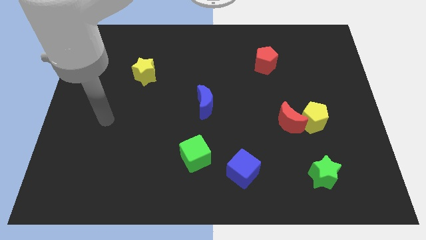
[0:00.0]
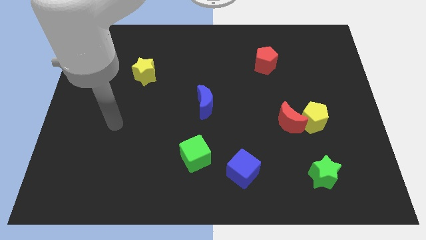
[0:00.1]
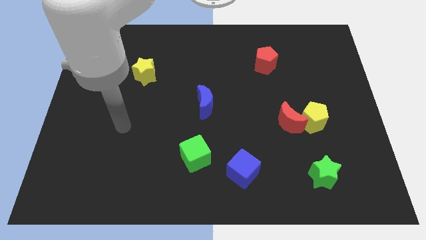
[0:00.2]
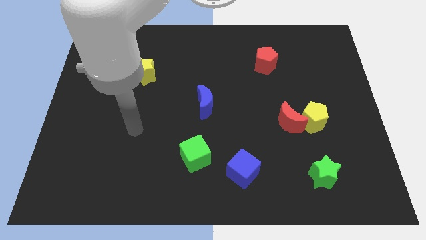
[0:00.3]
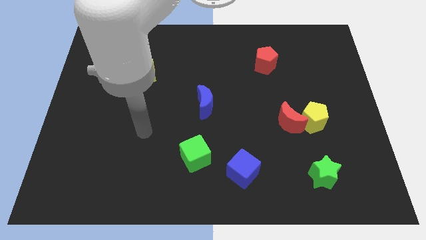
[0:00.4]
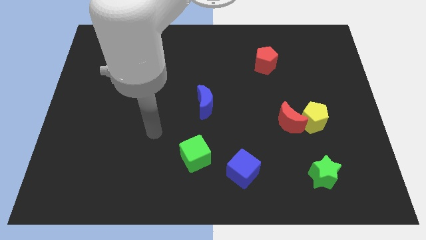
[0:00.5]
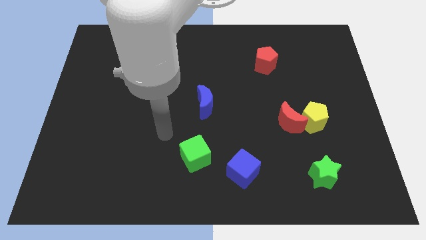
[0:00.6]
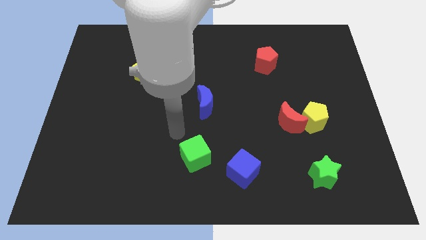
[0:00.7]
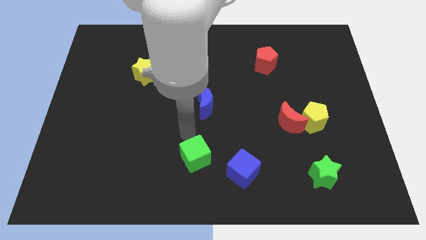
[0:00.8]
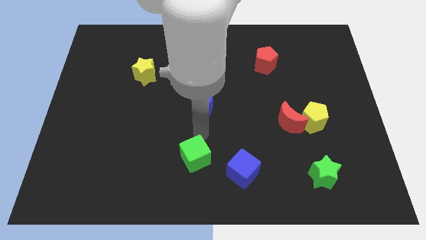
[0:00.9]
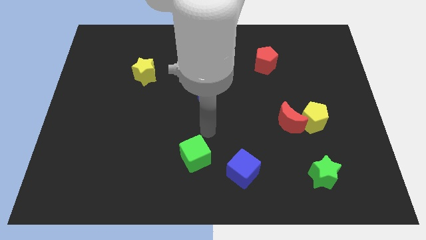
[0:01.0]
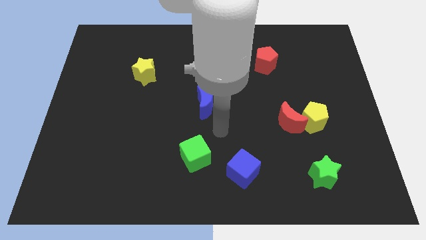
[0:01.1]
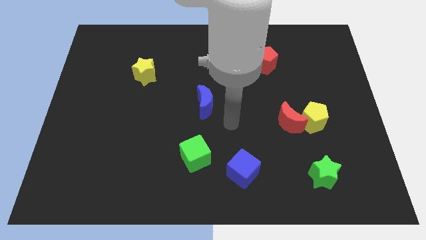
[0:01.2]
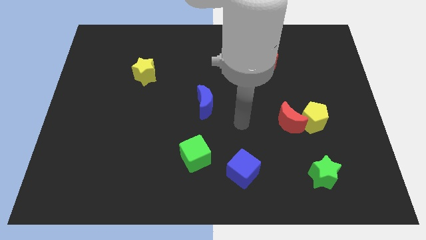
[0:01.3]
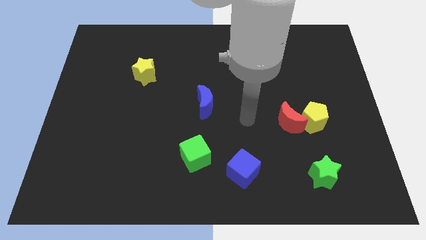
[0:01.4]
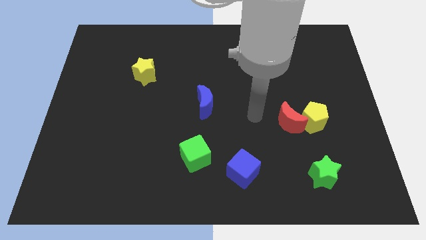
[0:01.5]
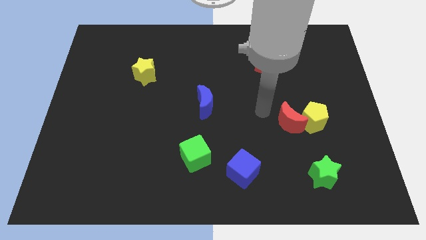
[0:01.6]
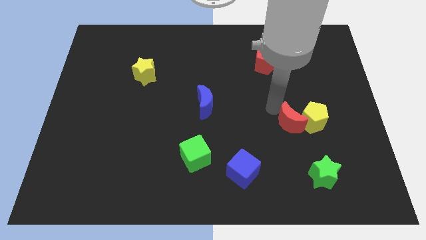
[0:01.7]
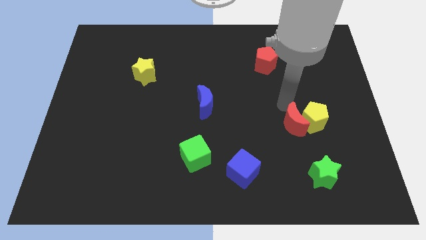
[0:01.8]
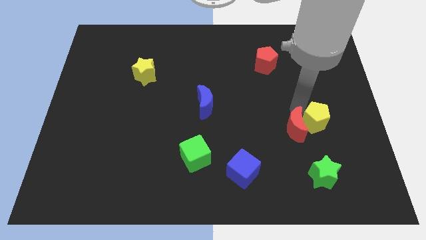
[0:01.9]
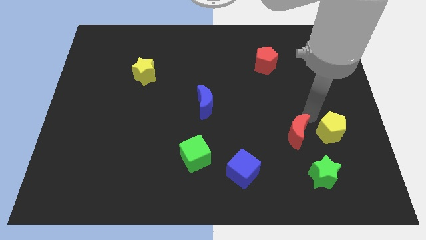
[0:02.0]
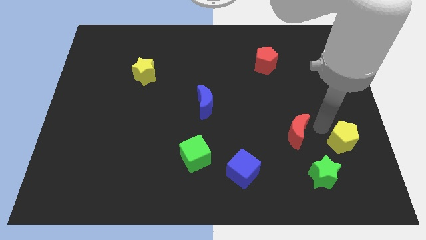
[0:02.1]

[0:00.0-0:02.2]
pull the red moon apart from the yellow pentagon

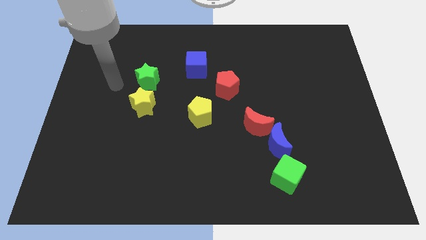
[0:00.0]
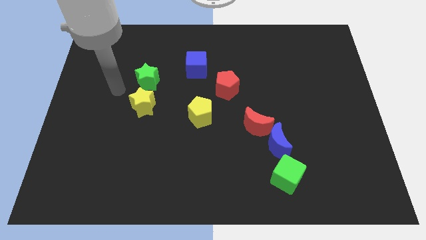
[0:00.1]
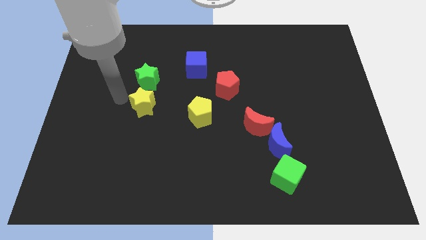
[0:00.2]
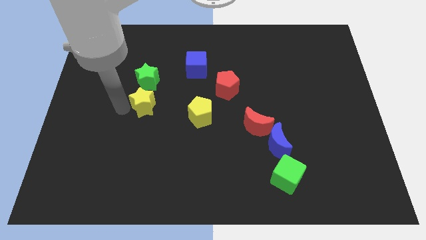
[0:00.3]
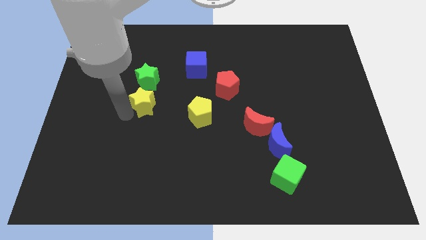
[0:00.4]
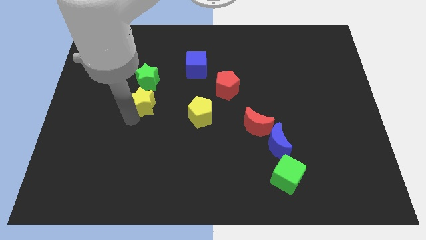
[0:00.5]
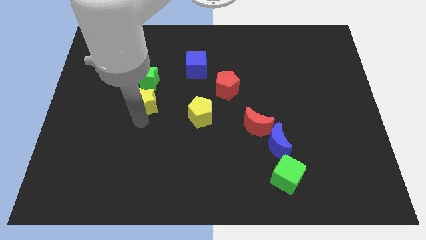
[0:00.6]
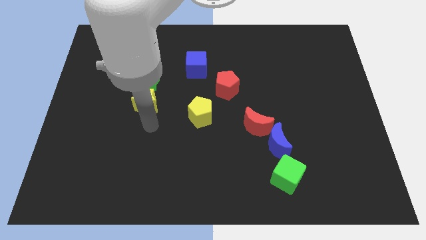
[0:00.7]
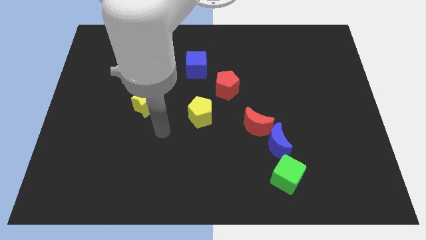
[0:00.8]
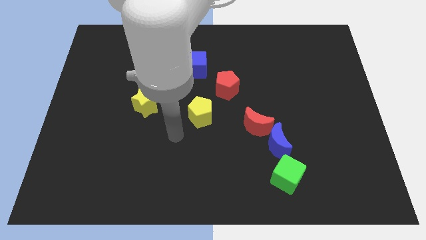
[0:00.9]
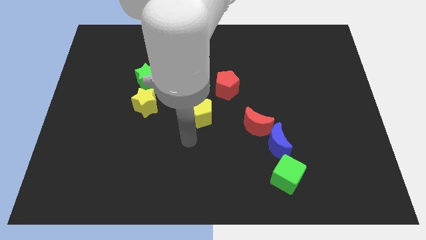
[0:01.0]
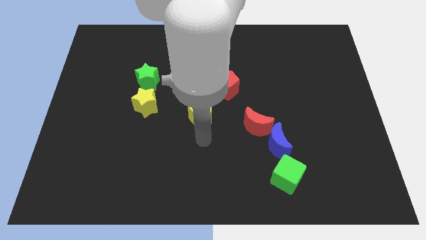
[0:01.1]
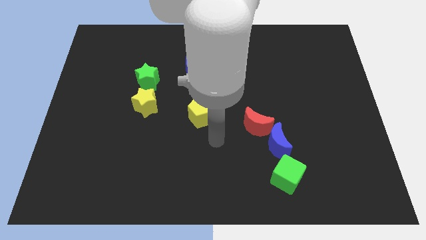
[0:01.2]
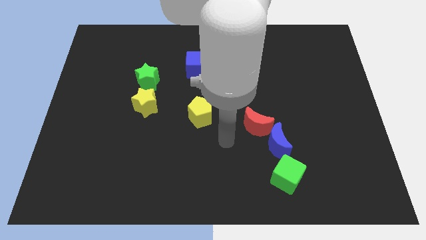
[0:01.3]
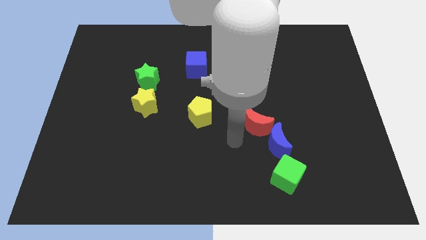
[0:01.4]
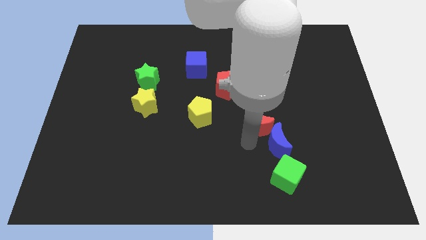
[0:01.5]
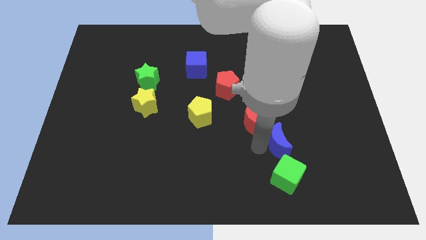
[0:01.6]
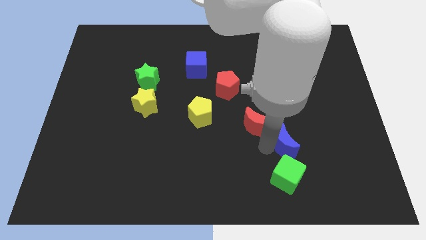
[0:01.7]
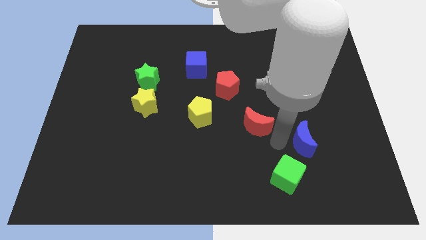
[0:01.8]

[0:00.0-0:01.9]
move the red moon away from the blue moon

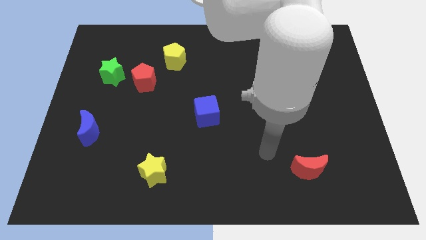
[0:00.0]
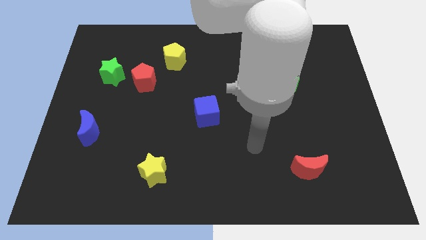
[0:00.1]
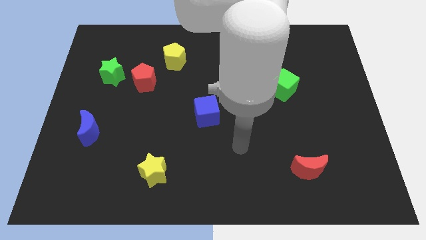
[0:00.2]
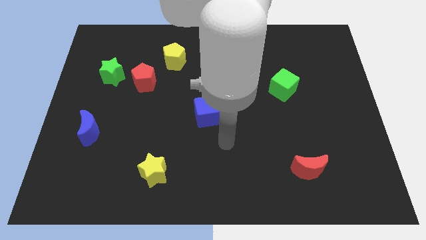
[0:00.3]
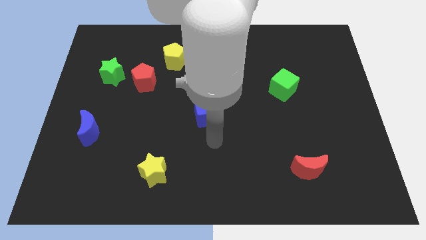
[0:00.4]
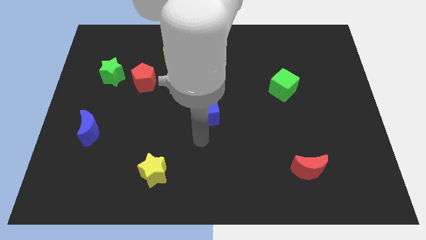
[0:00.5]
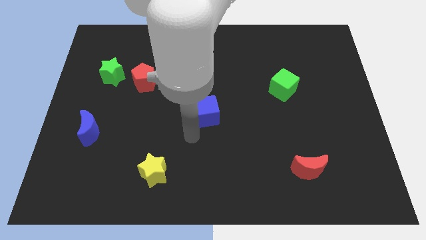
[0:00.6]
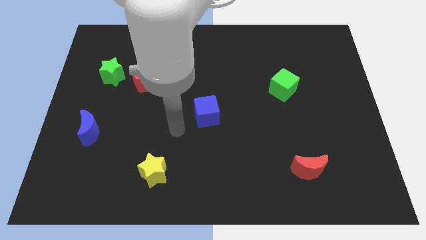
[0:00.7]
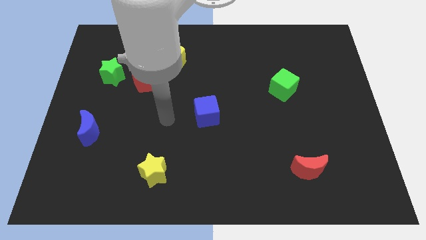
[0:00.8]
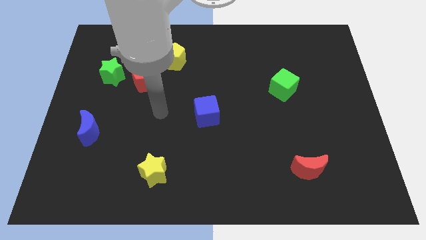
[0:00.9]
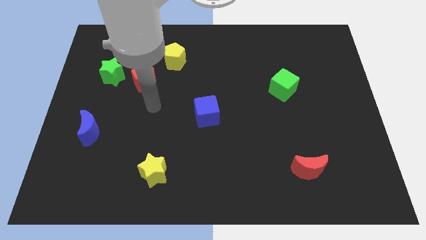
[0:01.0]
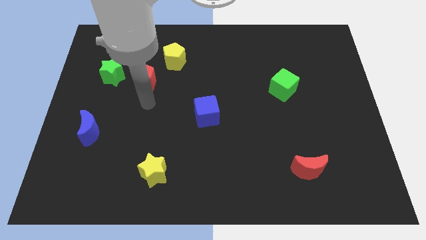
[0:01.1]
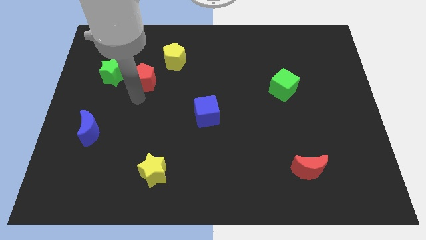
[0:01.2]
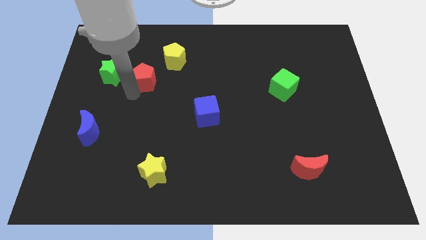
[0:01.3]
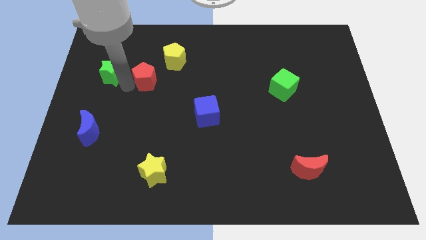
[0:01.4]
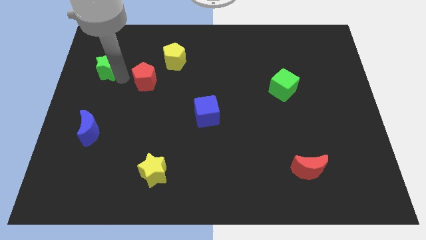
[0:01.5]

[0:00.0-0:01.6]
pull the red pentagon apart from the green star

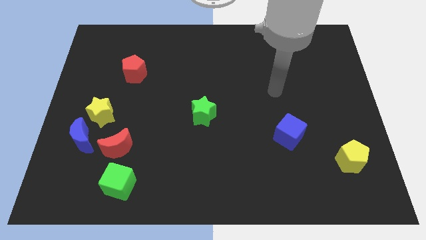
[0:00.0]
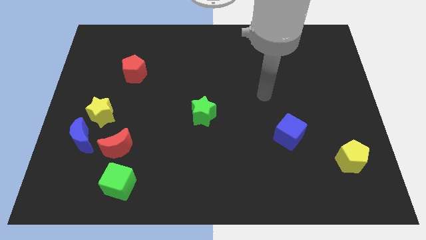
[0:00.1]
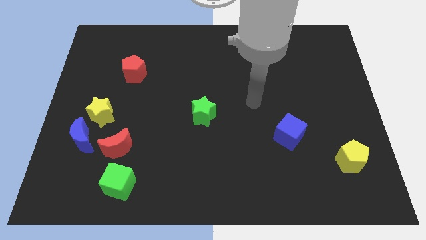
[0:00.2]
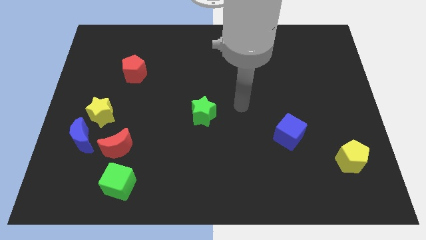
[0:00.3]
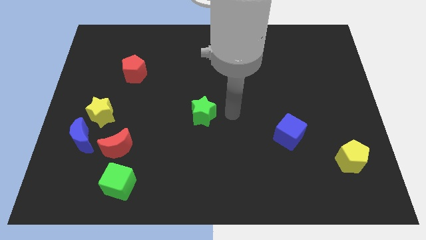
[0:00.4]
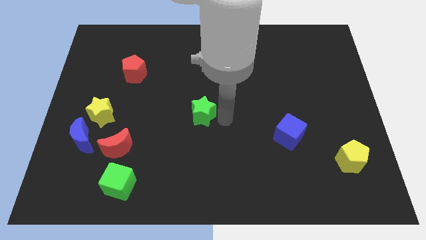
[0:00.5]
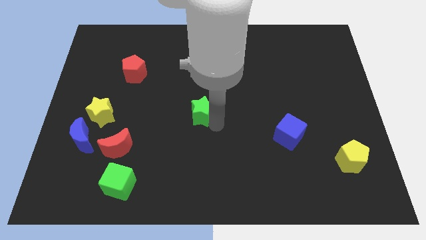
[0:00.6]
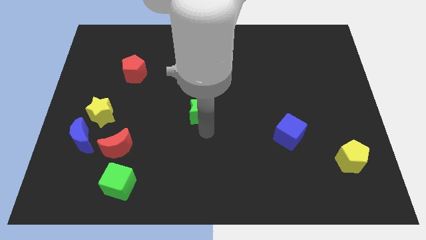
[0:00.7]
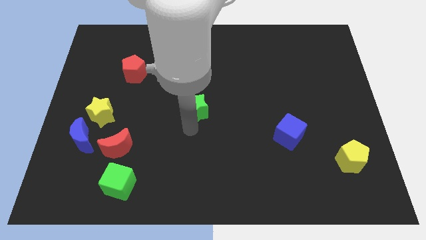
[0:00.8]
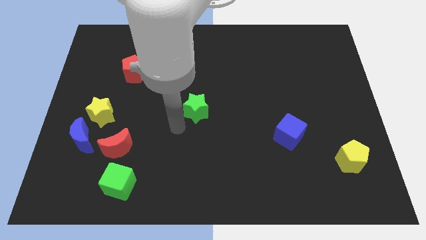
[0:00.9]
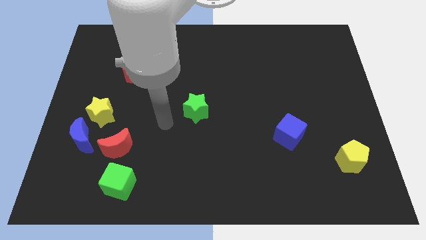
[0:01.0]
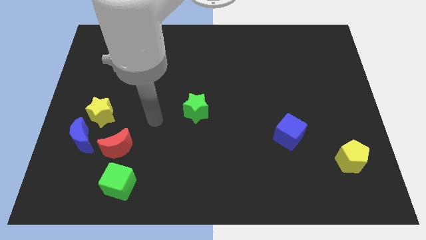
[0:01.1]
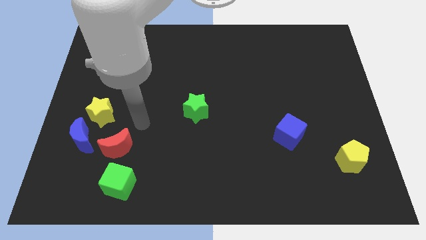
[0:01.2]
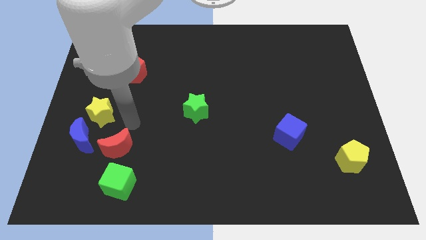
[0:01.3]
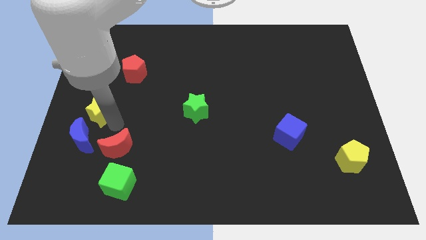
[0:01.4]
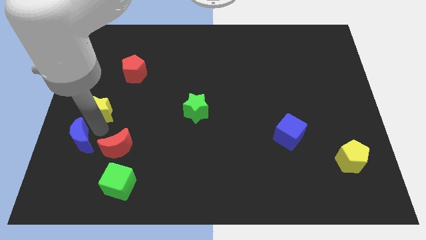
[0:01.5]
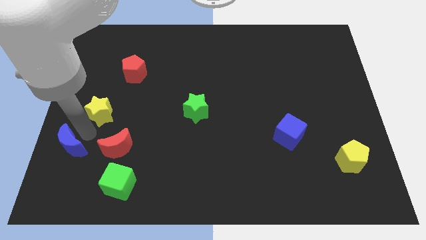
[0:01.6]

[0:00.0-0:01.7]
pull the yellow star apart from the blue moon

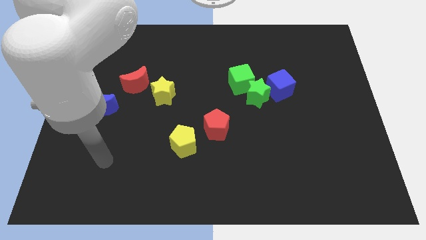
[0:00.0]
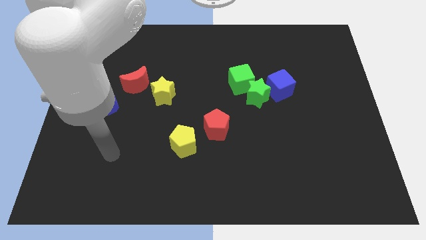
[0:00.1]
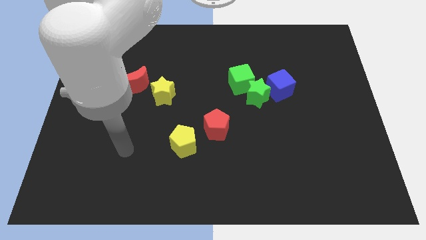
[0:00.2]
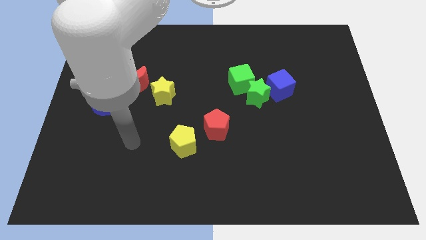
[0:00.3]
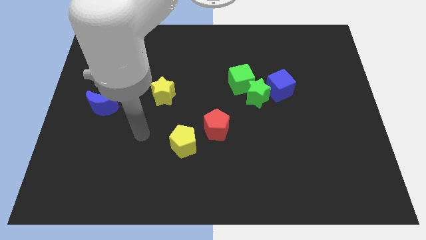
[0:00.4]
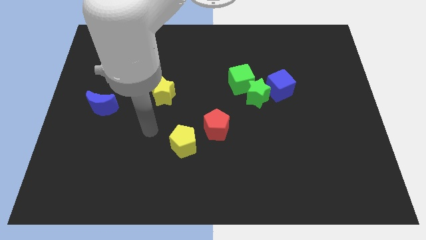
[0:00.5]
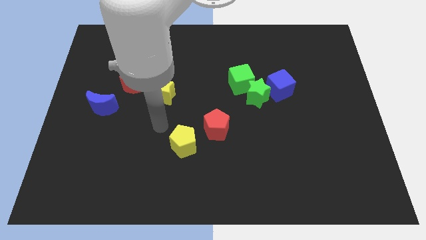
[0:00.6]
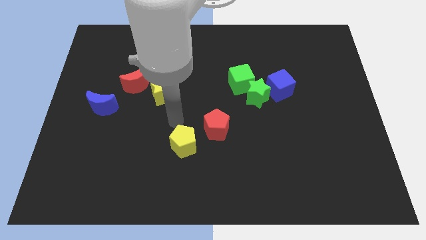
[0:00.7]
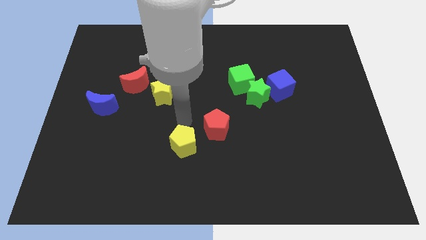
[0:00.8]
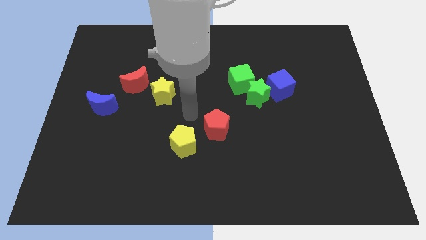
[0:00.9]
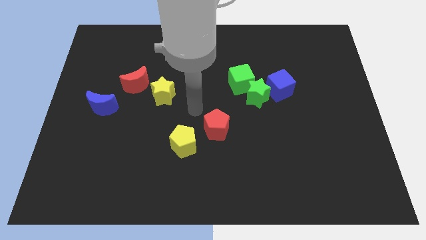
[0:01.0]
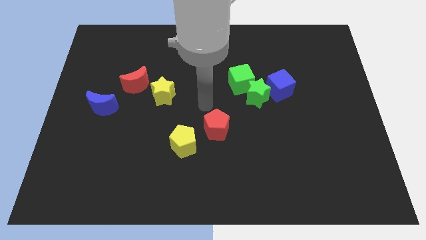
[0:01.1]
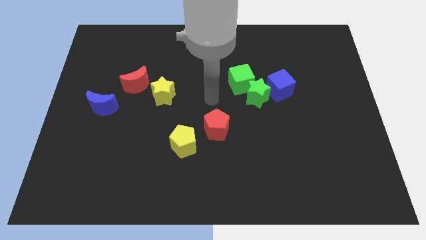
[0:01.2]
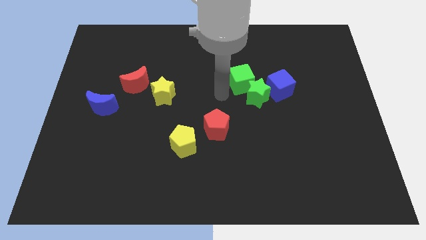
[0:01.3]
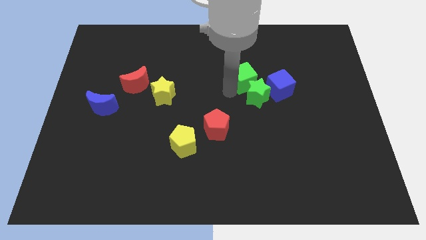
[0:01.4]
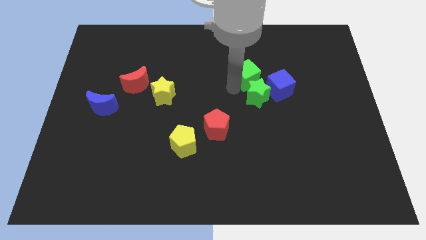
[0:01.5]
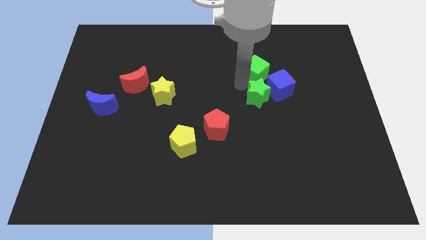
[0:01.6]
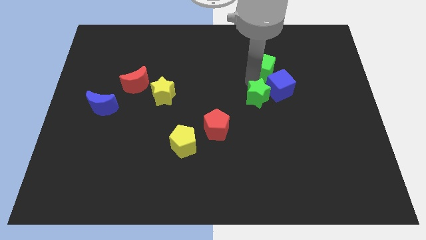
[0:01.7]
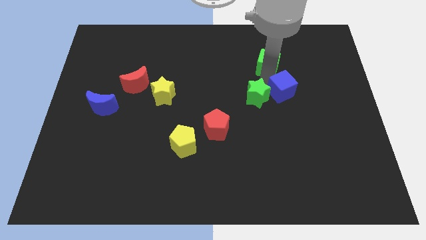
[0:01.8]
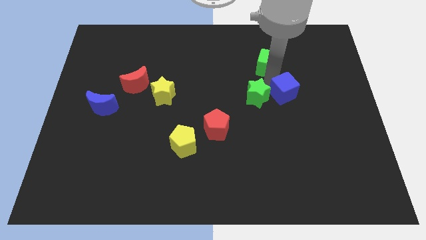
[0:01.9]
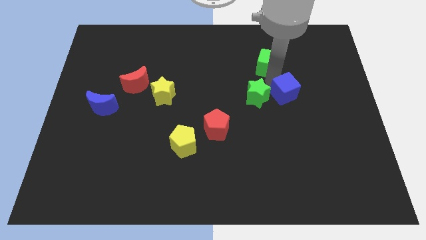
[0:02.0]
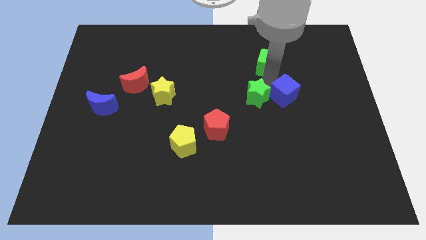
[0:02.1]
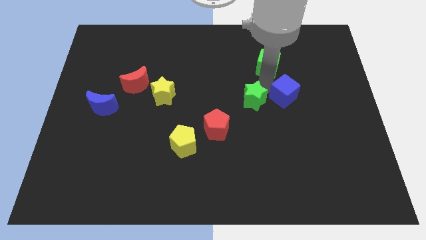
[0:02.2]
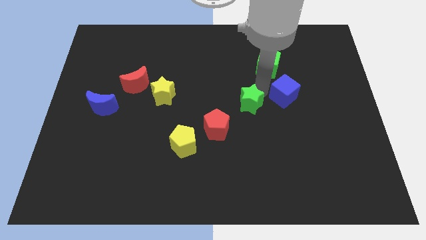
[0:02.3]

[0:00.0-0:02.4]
move the green star away from the green cube and blue cube
